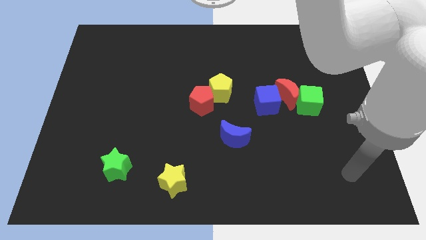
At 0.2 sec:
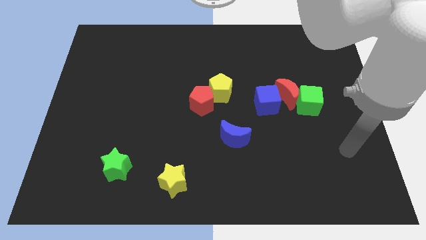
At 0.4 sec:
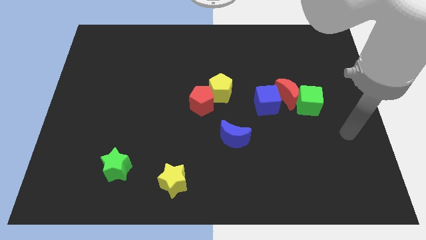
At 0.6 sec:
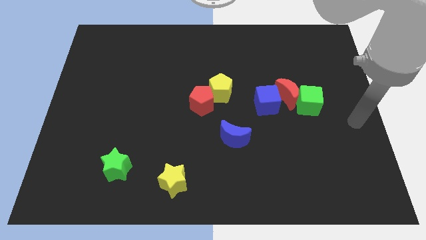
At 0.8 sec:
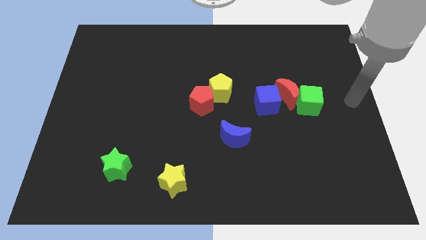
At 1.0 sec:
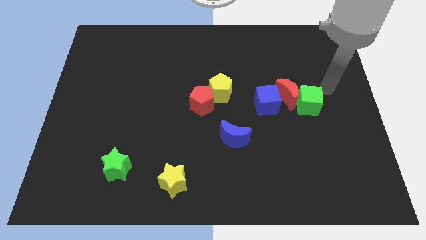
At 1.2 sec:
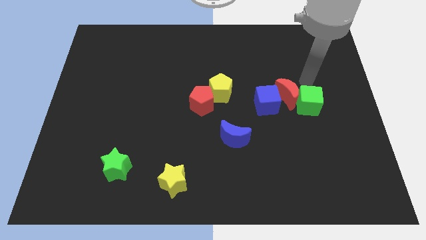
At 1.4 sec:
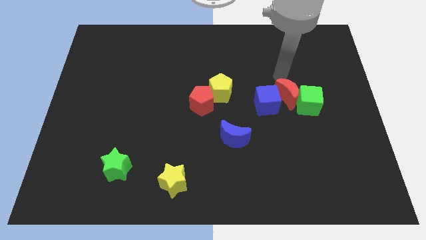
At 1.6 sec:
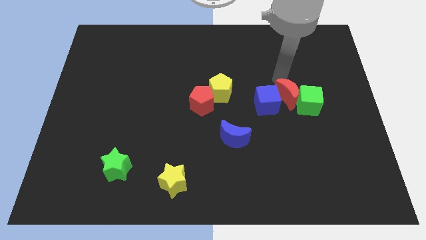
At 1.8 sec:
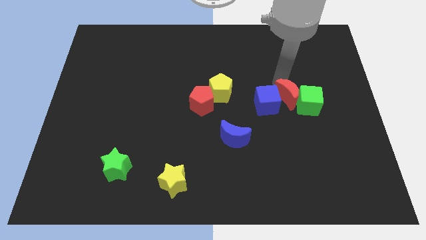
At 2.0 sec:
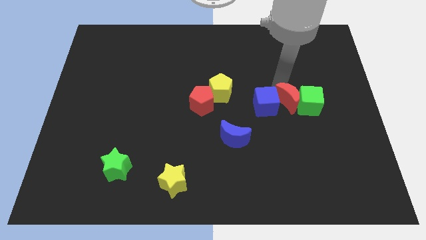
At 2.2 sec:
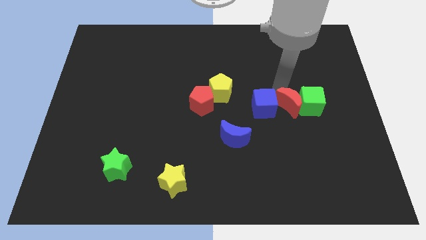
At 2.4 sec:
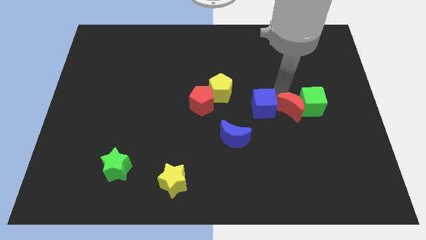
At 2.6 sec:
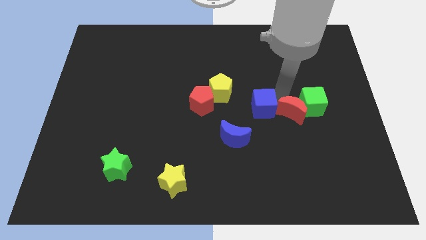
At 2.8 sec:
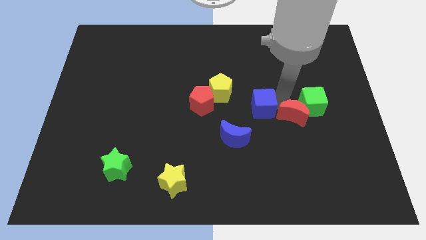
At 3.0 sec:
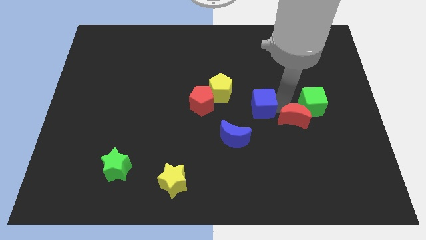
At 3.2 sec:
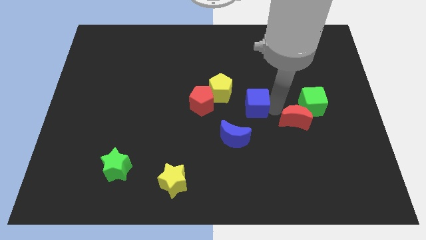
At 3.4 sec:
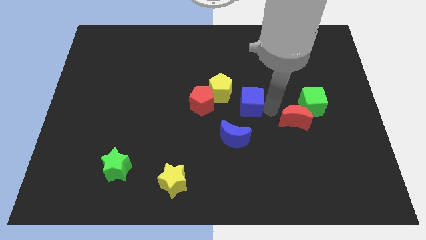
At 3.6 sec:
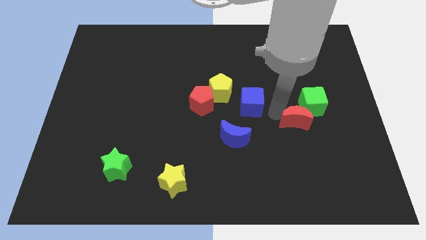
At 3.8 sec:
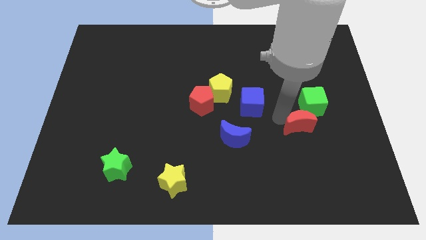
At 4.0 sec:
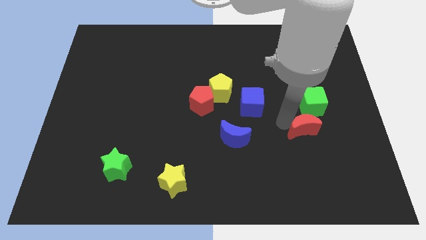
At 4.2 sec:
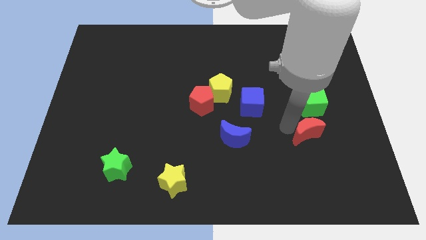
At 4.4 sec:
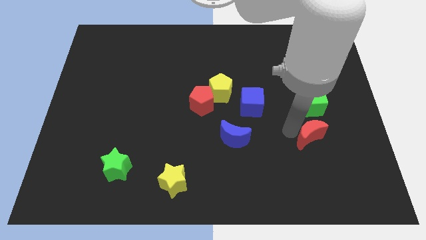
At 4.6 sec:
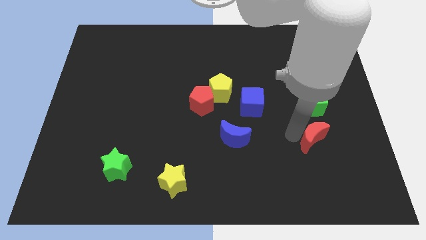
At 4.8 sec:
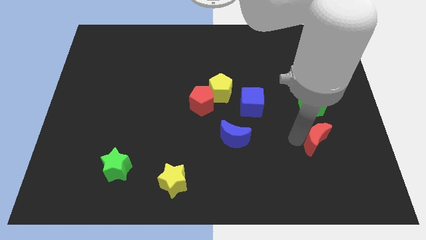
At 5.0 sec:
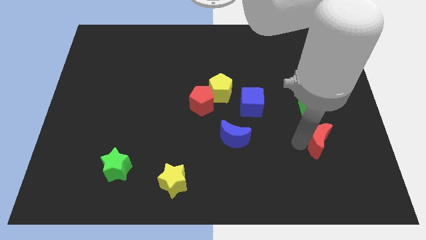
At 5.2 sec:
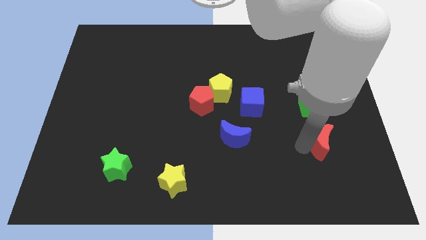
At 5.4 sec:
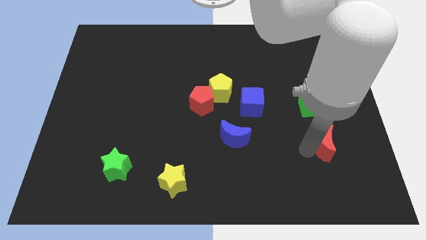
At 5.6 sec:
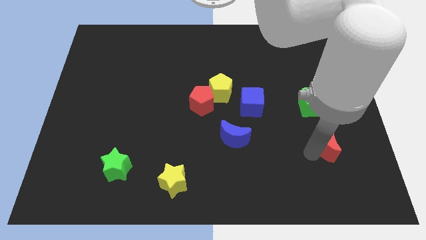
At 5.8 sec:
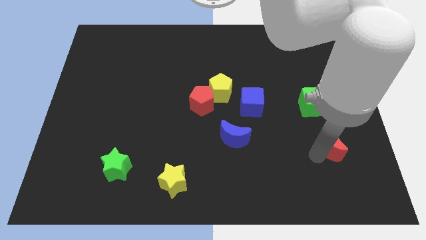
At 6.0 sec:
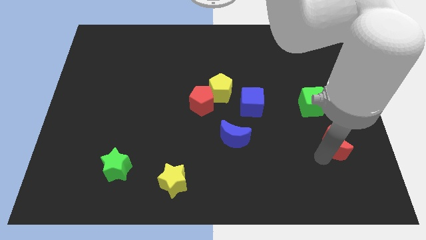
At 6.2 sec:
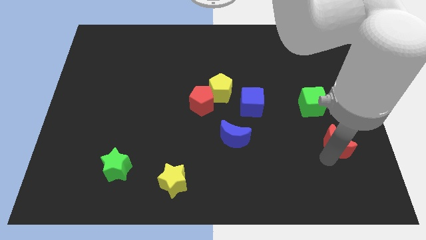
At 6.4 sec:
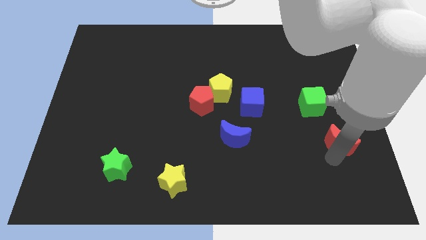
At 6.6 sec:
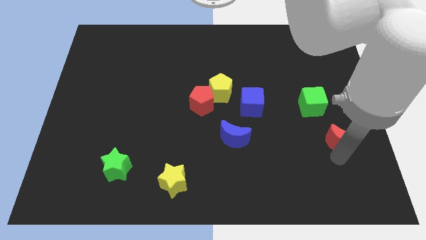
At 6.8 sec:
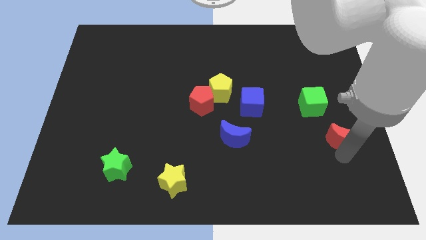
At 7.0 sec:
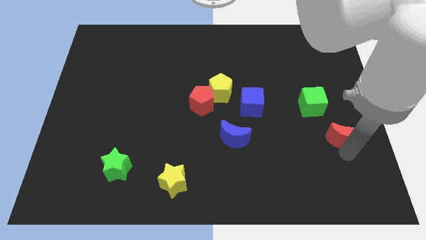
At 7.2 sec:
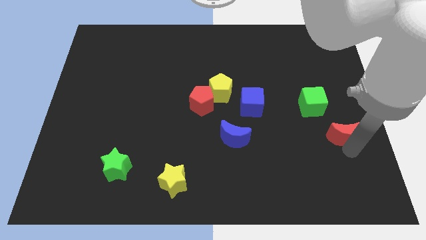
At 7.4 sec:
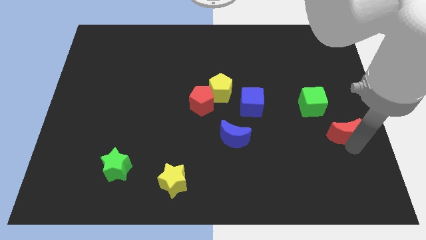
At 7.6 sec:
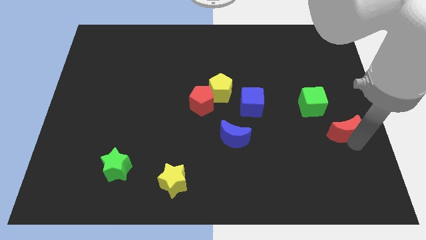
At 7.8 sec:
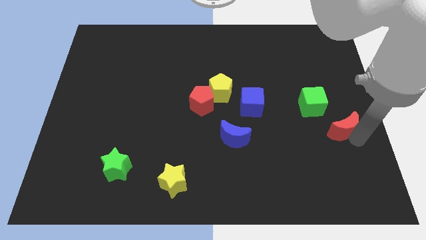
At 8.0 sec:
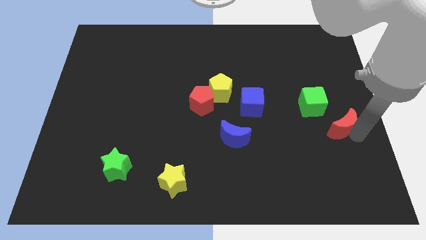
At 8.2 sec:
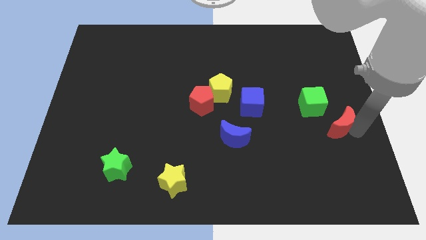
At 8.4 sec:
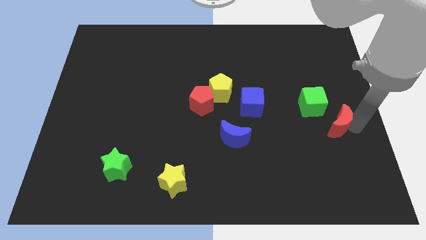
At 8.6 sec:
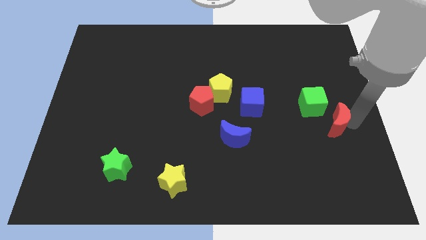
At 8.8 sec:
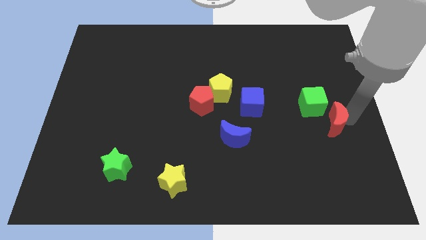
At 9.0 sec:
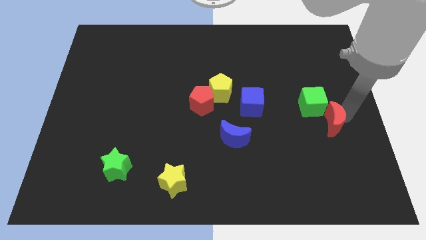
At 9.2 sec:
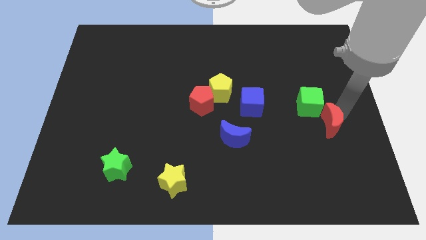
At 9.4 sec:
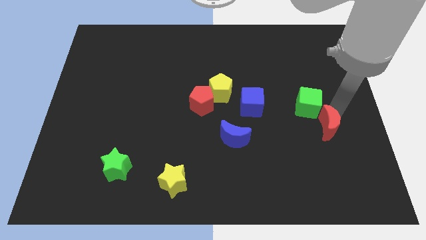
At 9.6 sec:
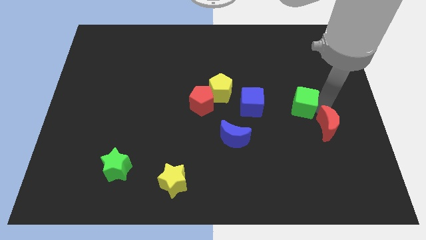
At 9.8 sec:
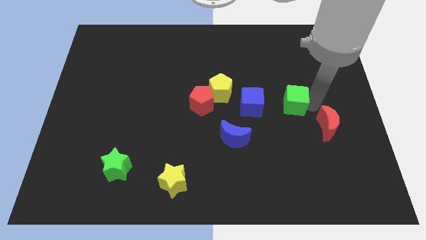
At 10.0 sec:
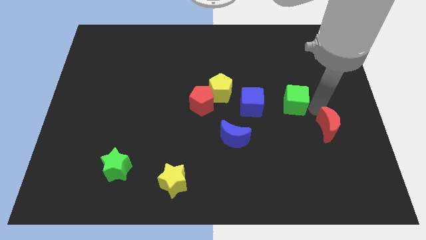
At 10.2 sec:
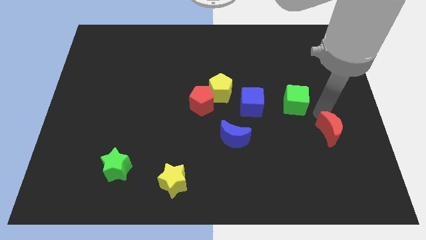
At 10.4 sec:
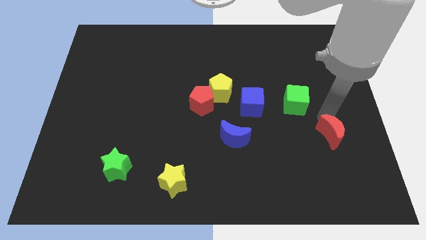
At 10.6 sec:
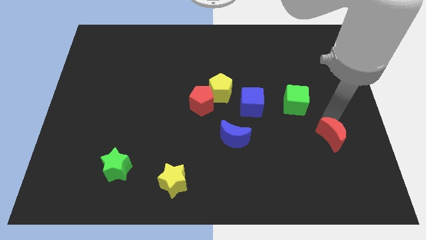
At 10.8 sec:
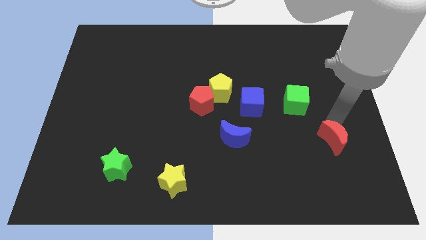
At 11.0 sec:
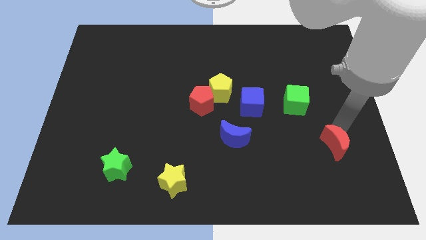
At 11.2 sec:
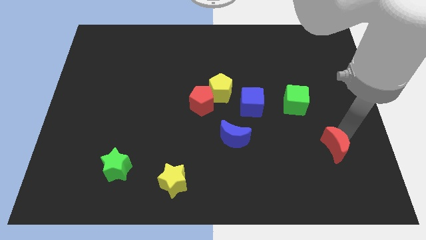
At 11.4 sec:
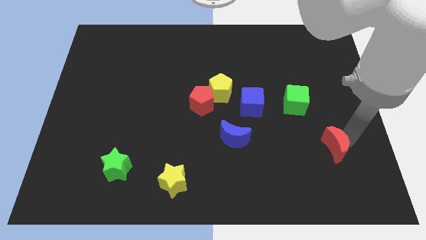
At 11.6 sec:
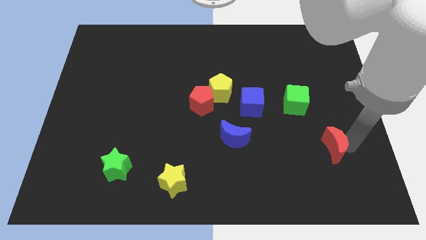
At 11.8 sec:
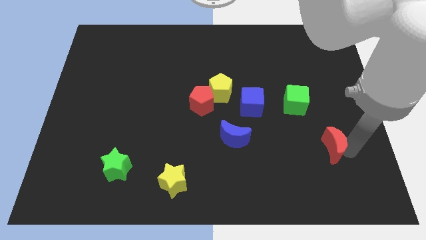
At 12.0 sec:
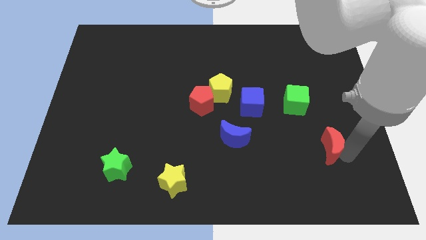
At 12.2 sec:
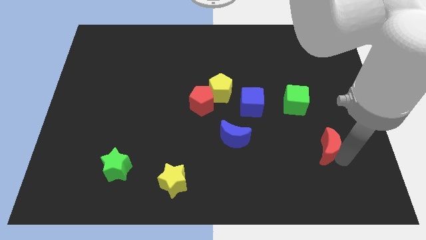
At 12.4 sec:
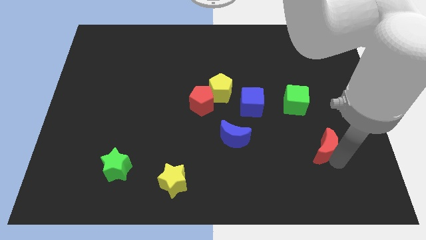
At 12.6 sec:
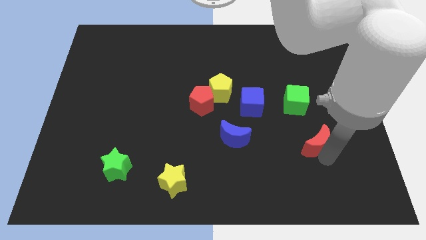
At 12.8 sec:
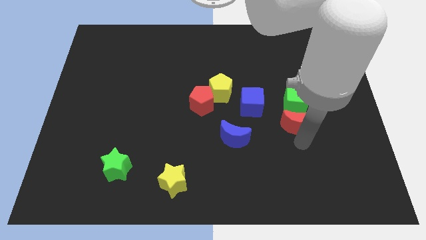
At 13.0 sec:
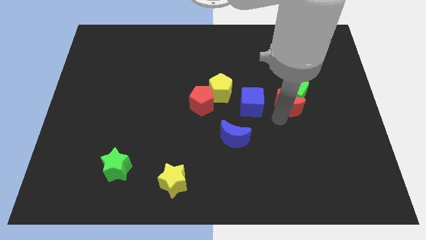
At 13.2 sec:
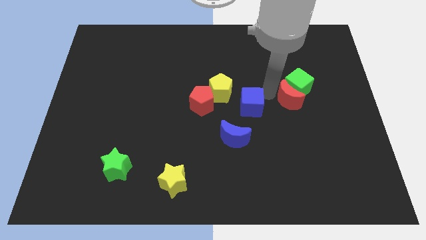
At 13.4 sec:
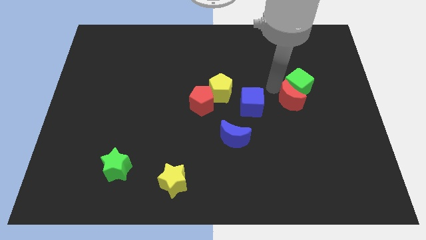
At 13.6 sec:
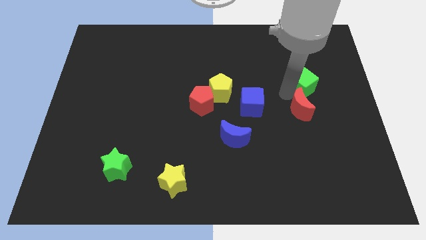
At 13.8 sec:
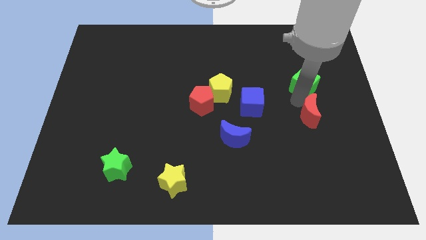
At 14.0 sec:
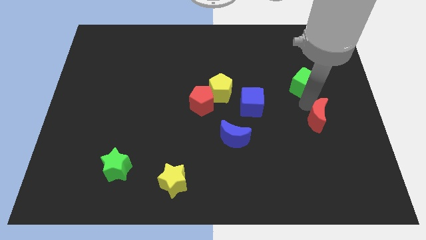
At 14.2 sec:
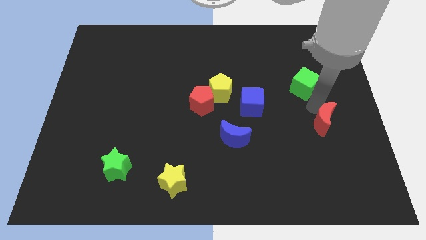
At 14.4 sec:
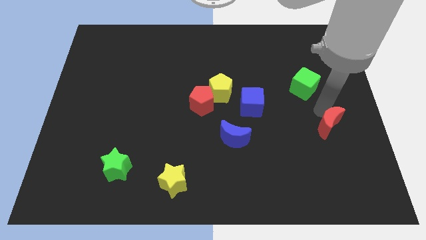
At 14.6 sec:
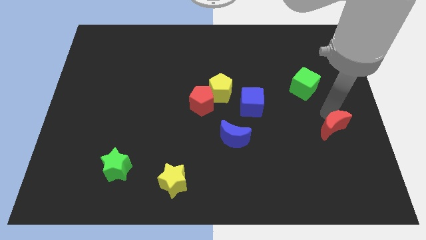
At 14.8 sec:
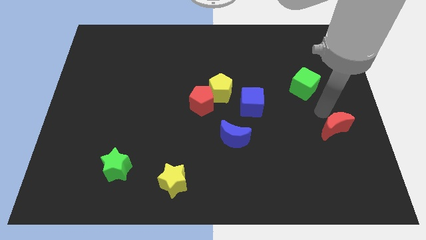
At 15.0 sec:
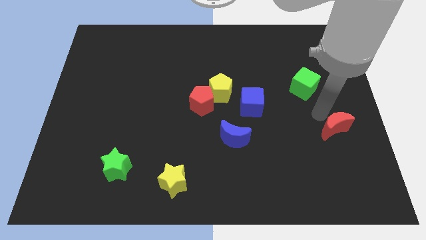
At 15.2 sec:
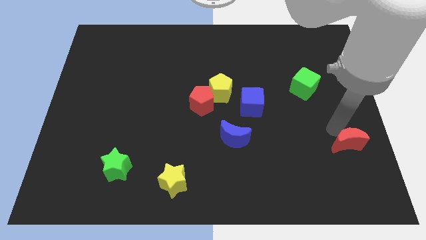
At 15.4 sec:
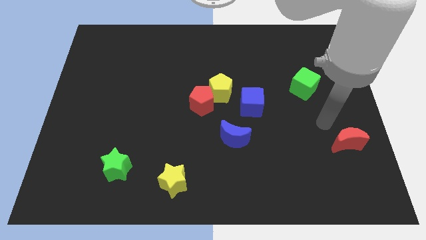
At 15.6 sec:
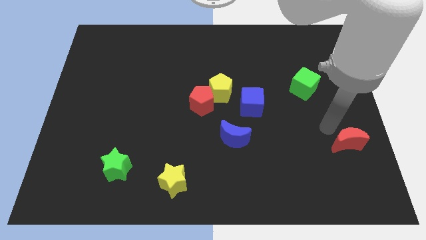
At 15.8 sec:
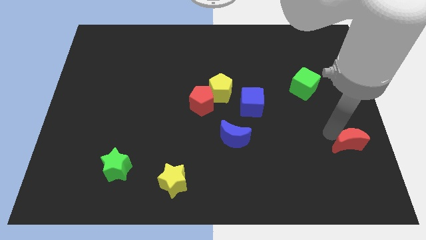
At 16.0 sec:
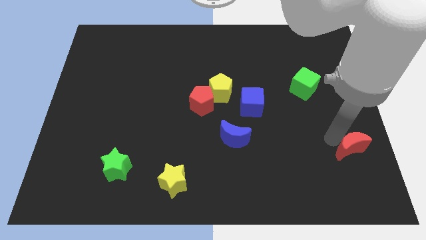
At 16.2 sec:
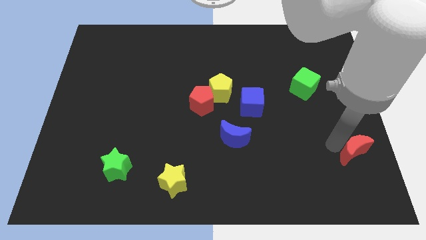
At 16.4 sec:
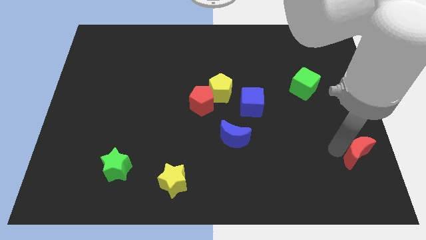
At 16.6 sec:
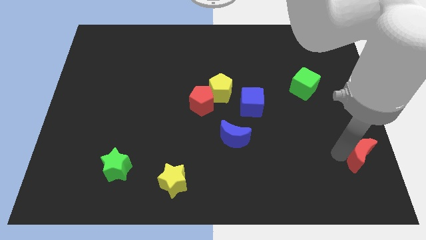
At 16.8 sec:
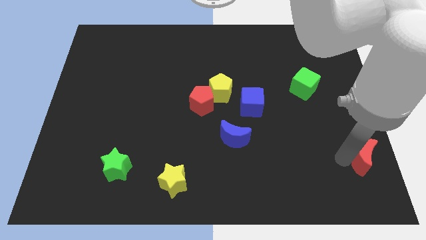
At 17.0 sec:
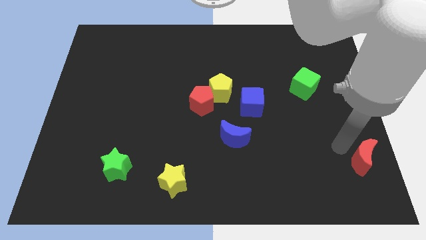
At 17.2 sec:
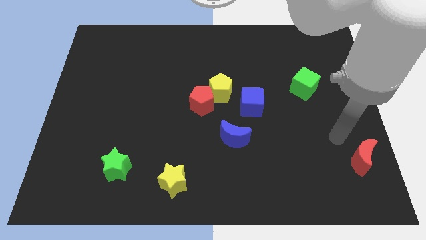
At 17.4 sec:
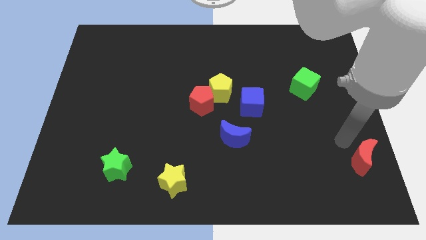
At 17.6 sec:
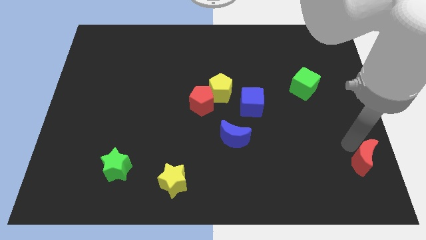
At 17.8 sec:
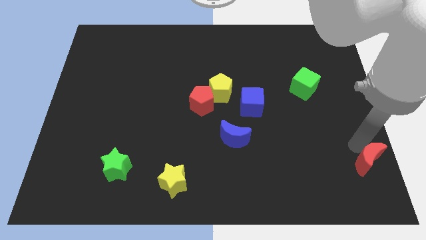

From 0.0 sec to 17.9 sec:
slide the red moon to the bottom right corner
